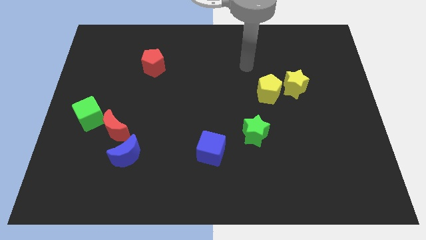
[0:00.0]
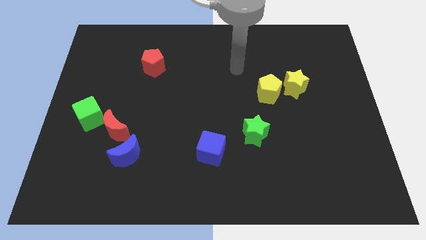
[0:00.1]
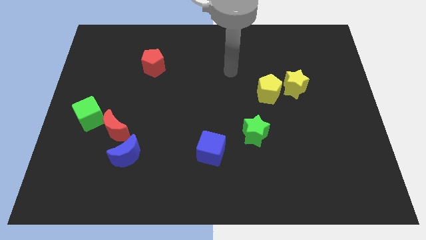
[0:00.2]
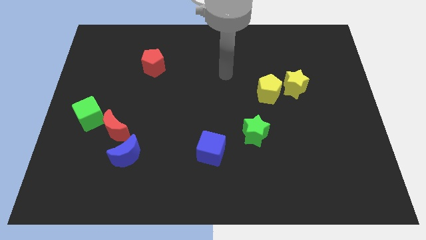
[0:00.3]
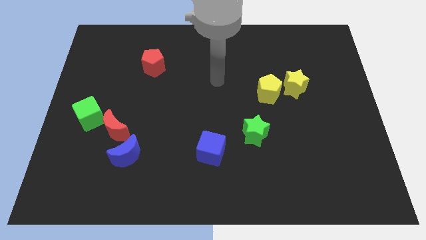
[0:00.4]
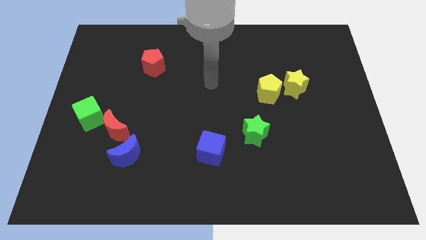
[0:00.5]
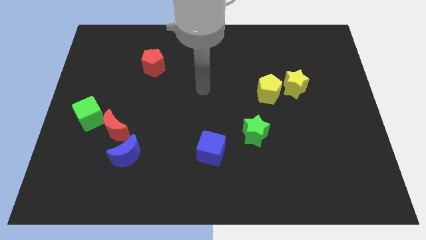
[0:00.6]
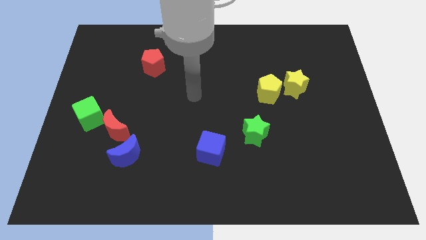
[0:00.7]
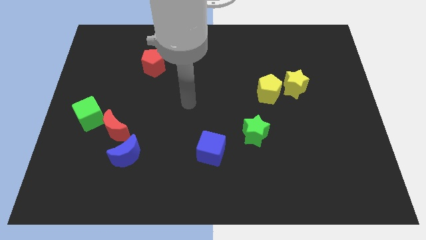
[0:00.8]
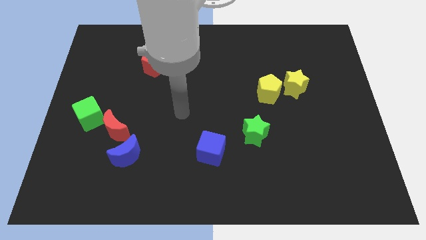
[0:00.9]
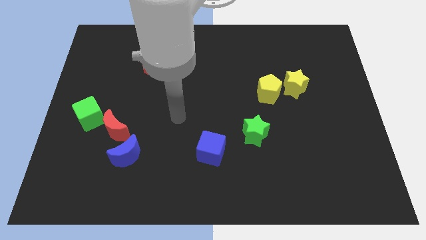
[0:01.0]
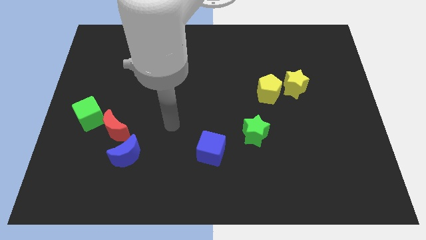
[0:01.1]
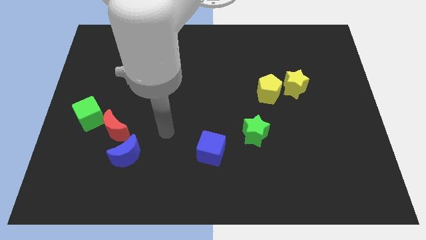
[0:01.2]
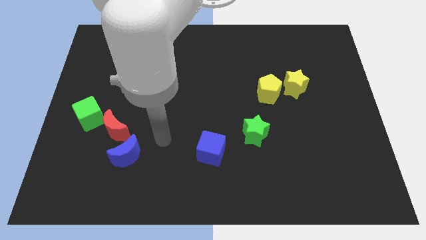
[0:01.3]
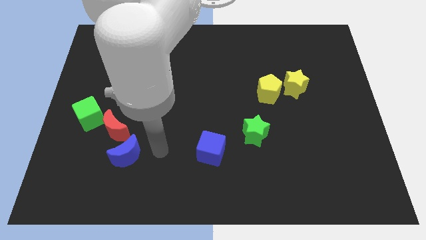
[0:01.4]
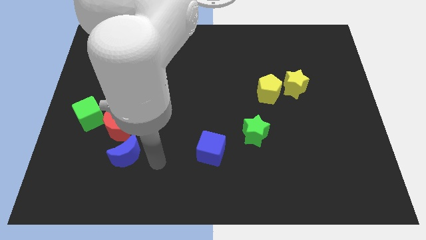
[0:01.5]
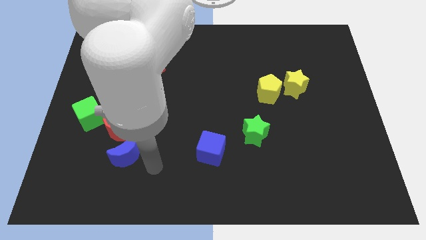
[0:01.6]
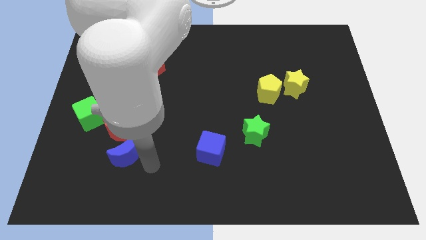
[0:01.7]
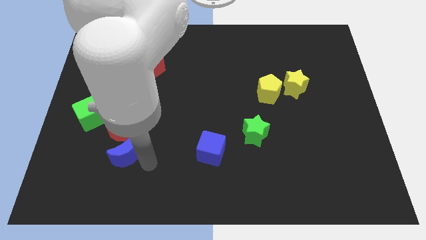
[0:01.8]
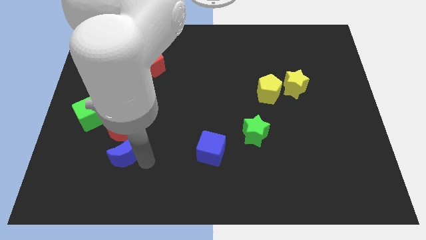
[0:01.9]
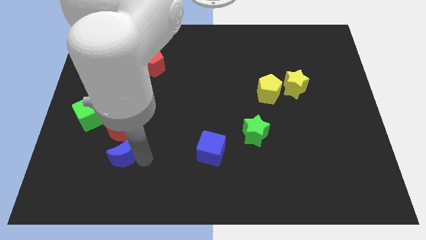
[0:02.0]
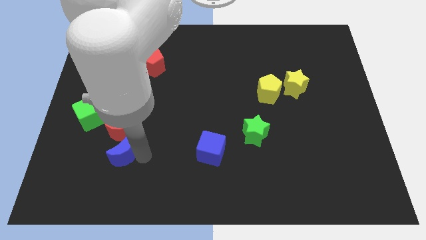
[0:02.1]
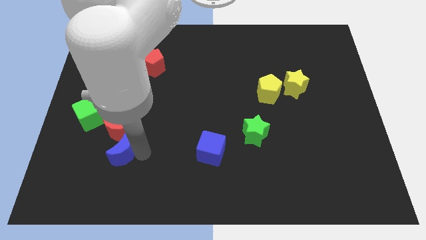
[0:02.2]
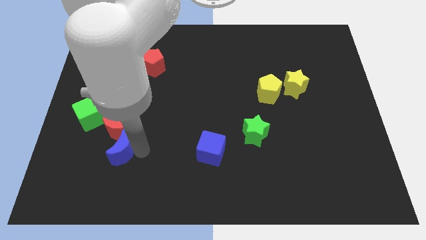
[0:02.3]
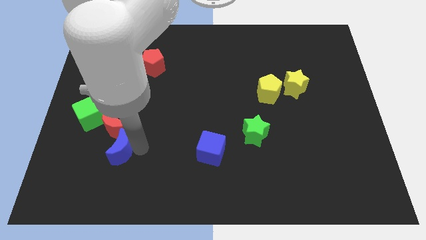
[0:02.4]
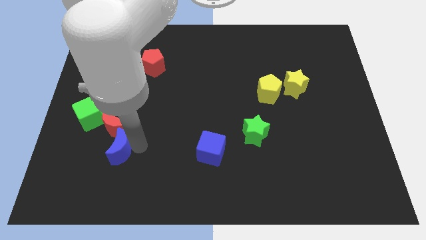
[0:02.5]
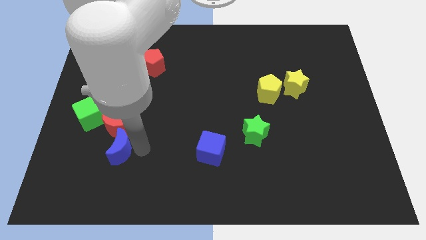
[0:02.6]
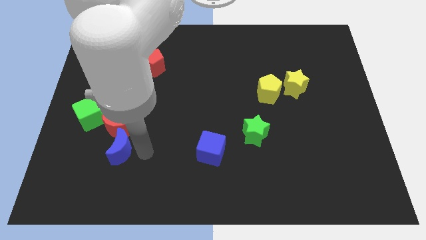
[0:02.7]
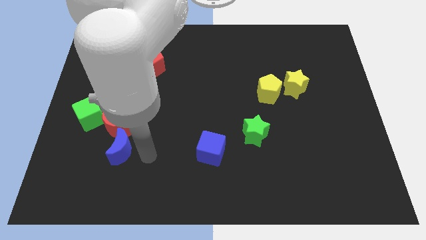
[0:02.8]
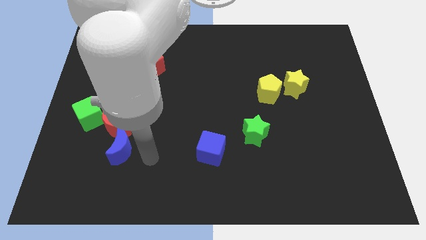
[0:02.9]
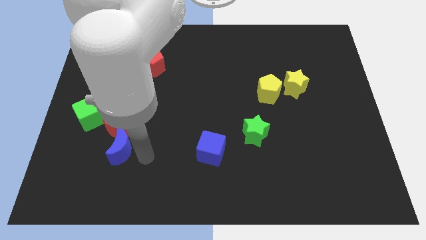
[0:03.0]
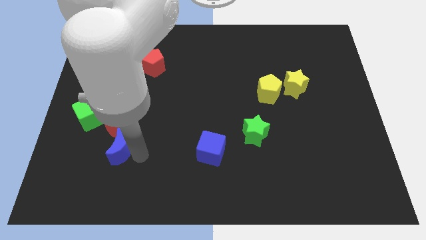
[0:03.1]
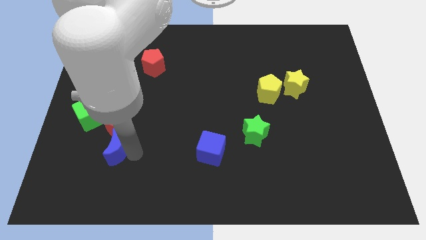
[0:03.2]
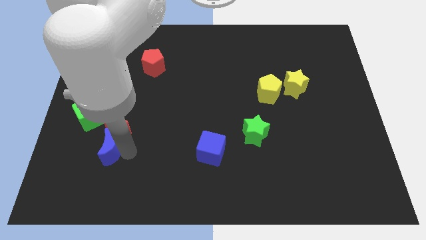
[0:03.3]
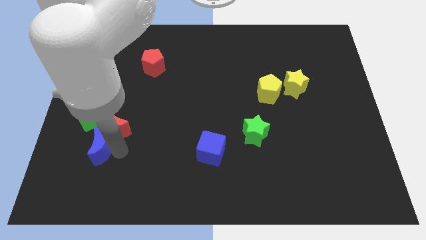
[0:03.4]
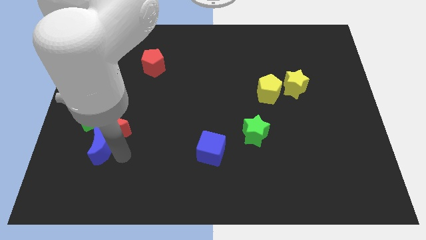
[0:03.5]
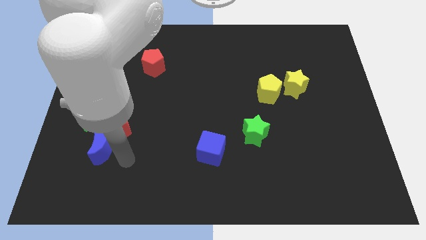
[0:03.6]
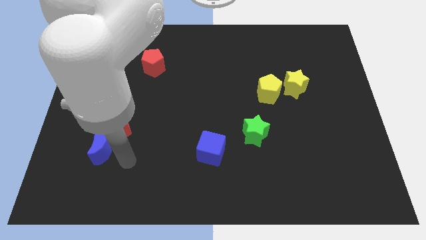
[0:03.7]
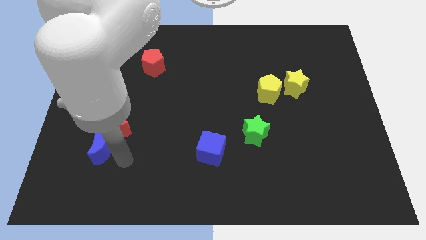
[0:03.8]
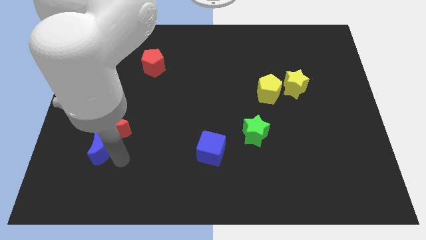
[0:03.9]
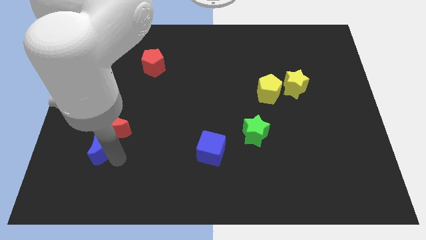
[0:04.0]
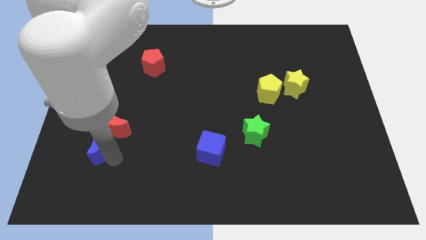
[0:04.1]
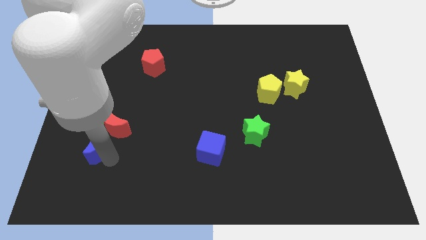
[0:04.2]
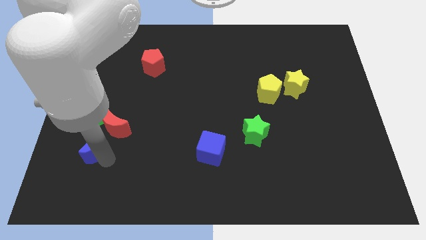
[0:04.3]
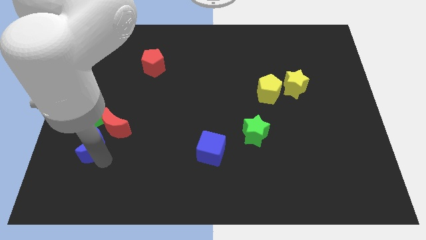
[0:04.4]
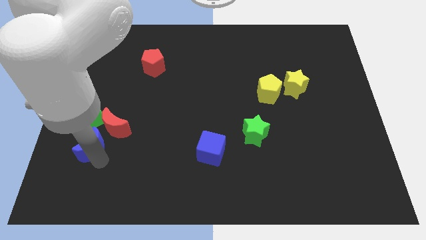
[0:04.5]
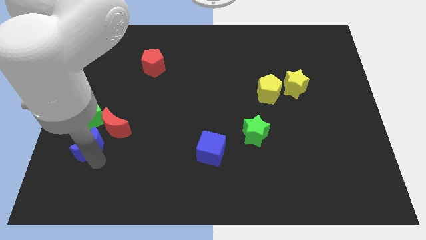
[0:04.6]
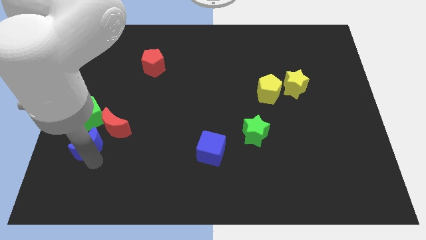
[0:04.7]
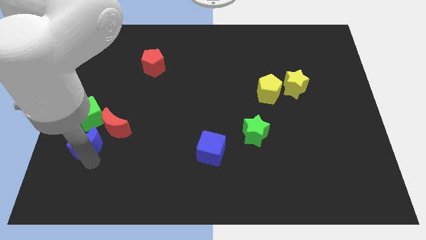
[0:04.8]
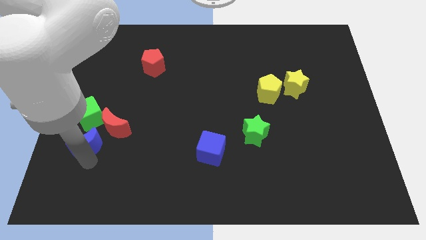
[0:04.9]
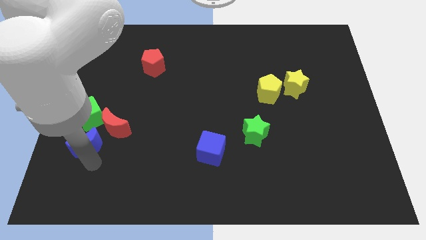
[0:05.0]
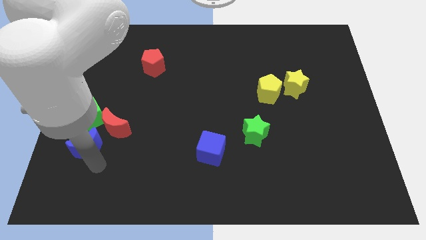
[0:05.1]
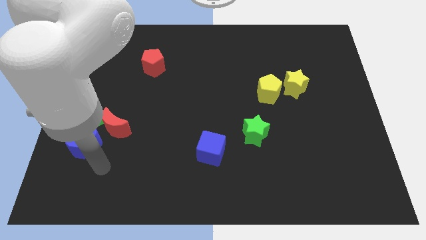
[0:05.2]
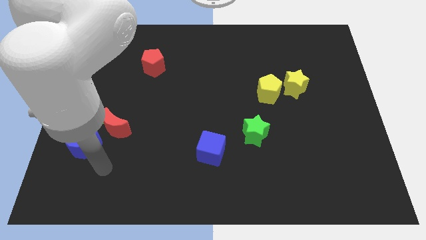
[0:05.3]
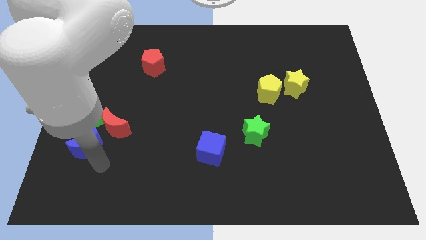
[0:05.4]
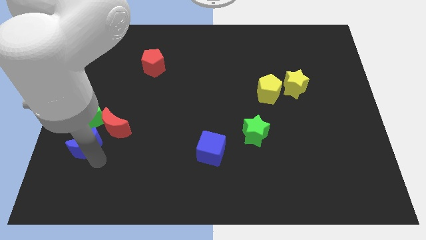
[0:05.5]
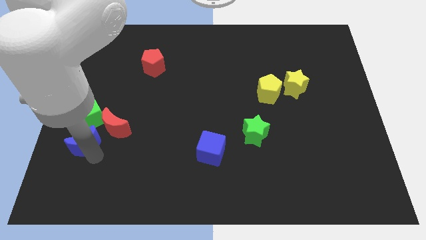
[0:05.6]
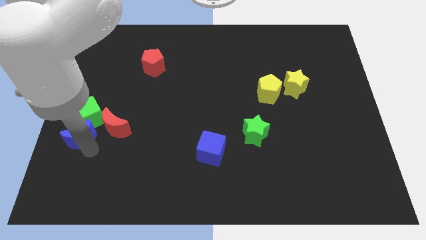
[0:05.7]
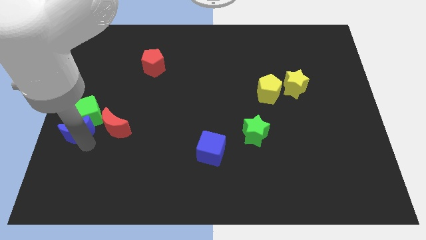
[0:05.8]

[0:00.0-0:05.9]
put the blue moon to the left side of the board

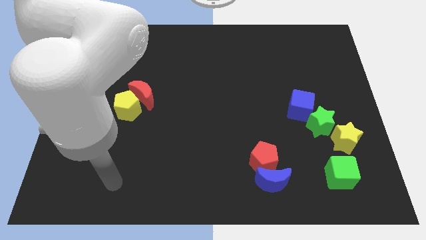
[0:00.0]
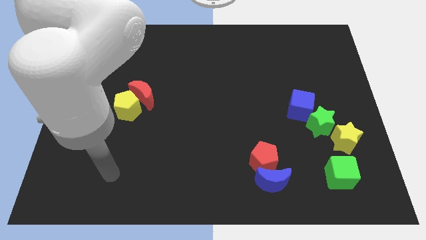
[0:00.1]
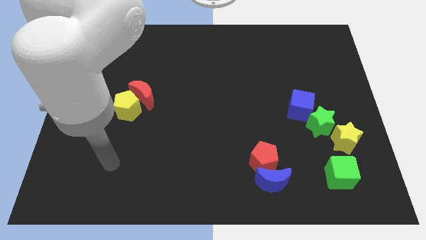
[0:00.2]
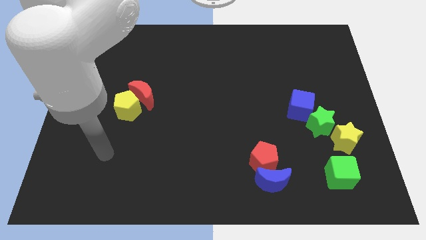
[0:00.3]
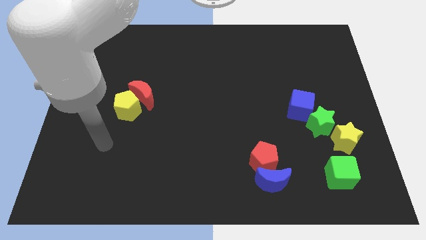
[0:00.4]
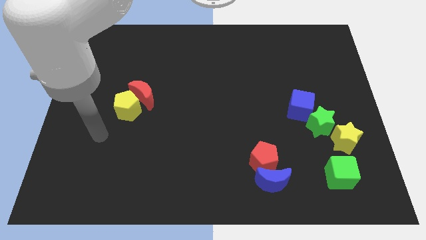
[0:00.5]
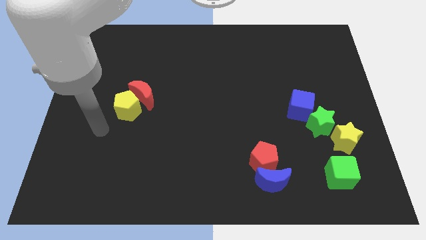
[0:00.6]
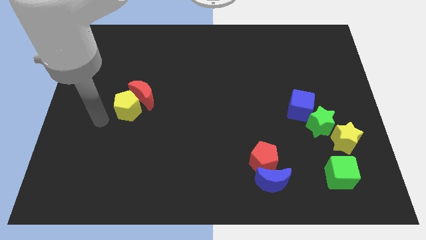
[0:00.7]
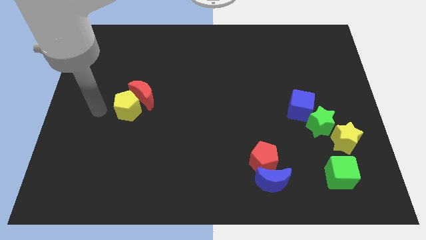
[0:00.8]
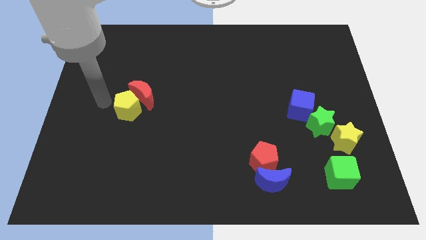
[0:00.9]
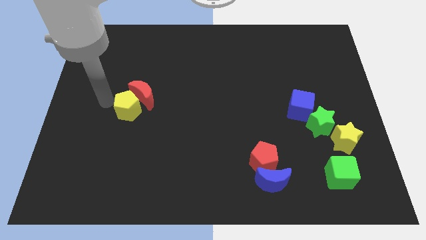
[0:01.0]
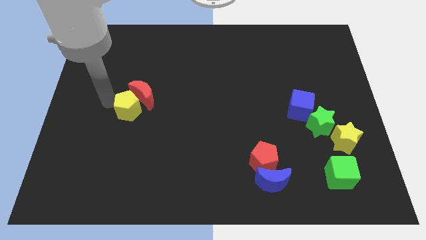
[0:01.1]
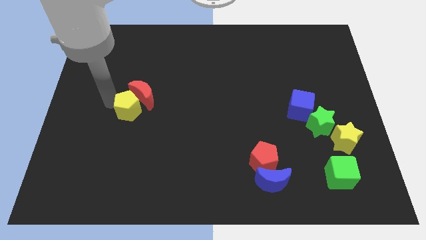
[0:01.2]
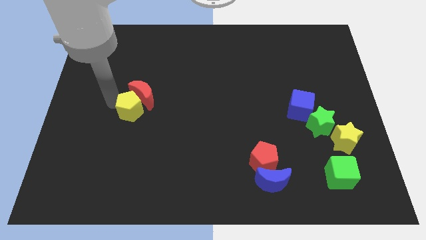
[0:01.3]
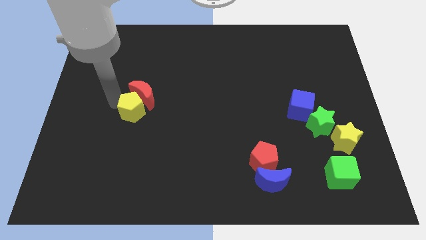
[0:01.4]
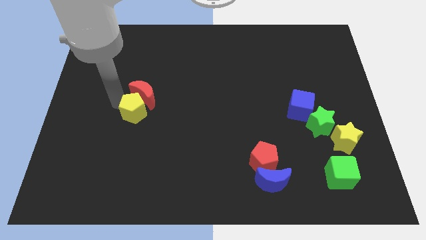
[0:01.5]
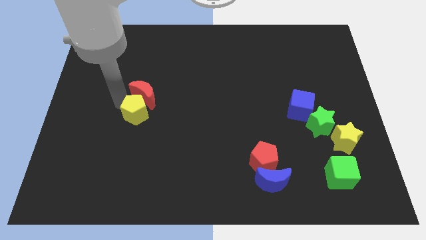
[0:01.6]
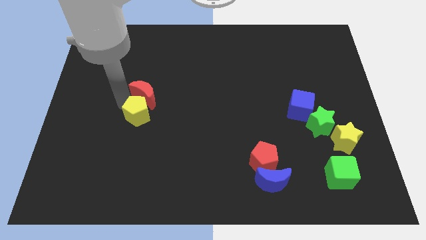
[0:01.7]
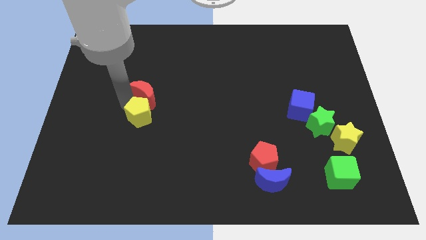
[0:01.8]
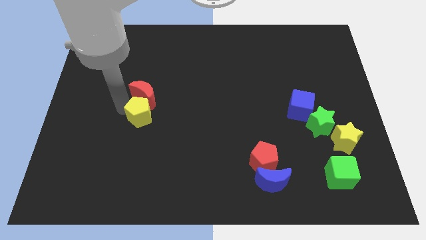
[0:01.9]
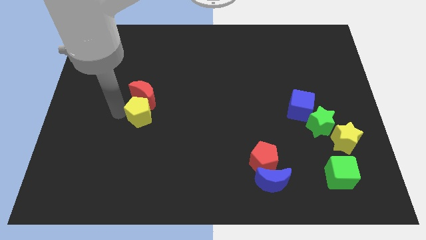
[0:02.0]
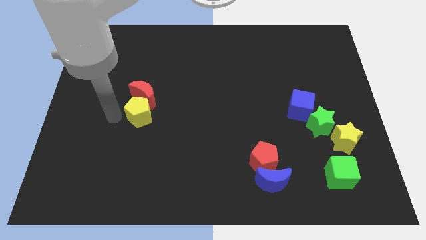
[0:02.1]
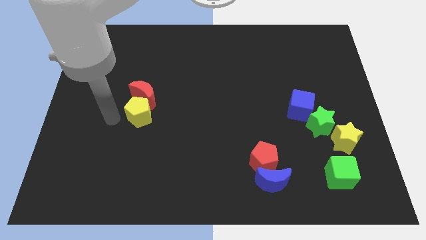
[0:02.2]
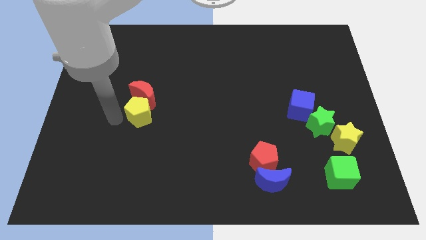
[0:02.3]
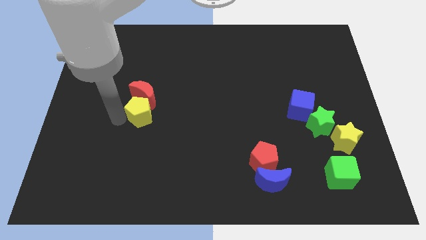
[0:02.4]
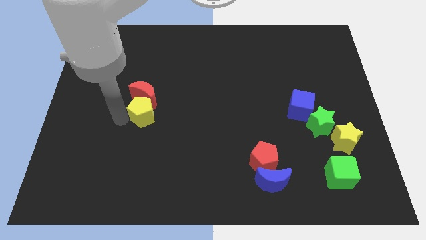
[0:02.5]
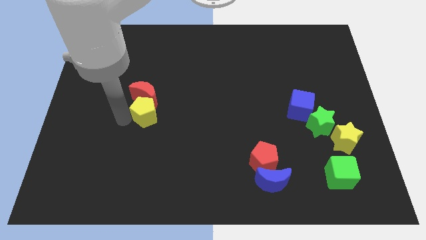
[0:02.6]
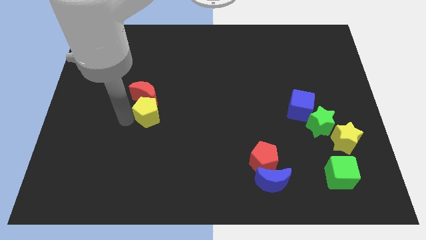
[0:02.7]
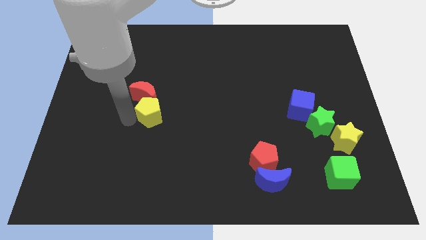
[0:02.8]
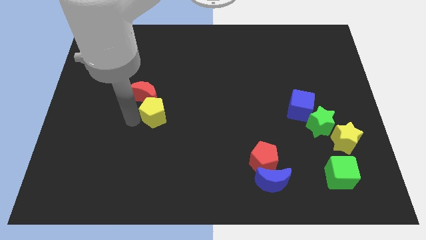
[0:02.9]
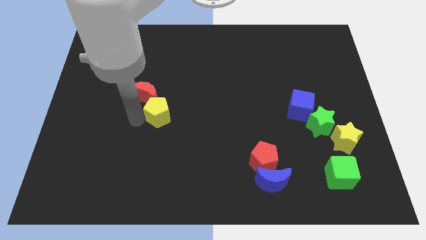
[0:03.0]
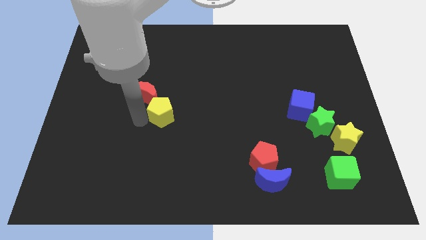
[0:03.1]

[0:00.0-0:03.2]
push the yellow pentagon to the middle
